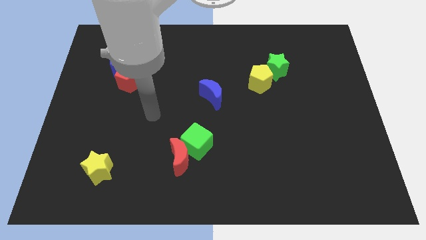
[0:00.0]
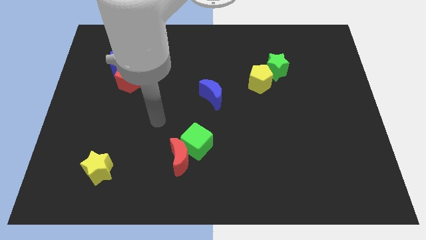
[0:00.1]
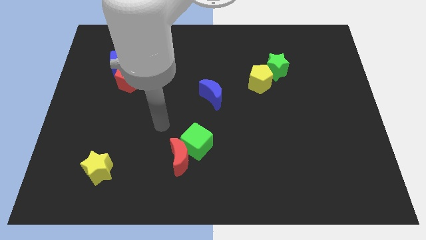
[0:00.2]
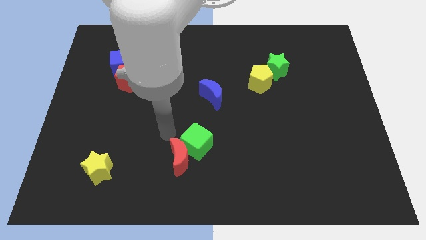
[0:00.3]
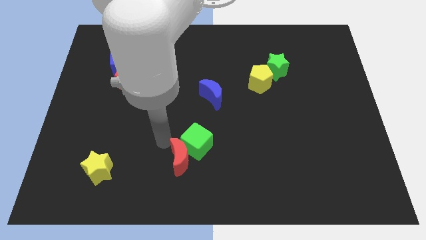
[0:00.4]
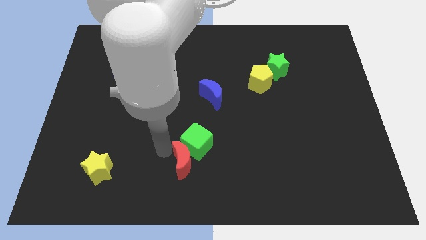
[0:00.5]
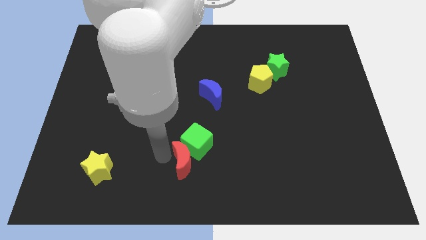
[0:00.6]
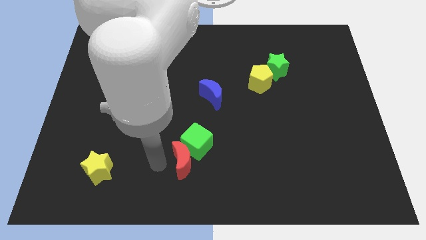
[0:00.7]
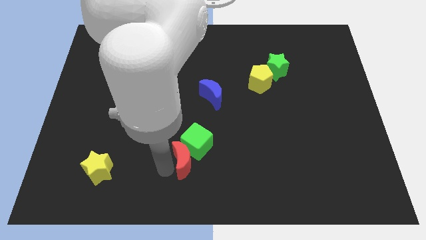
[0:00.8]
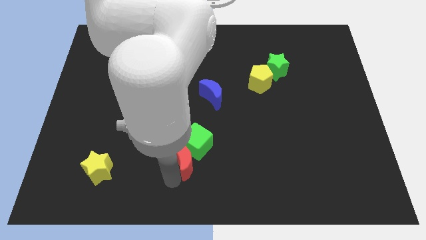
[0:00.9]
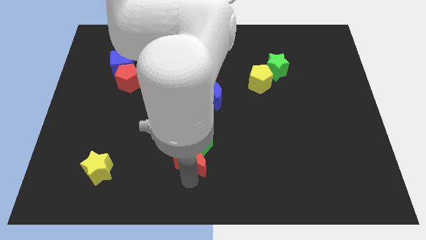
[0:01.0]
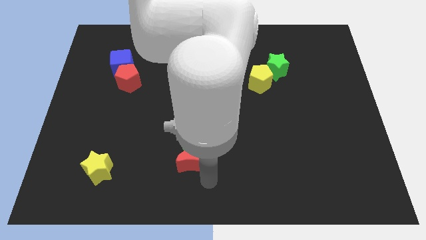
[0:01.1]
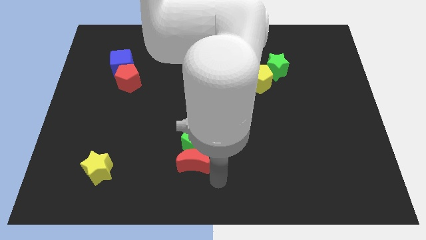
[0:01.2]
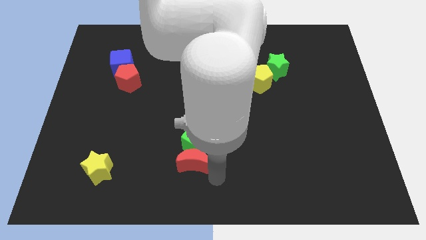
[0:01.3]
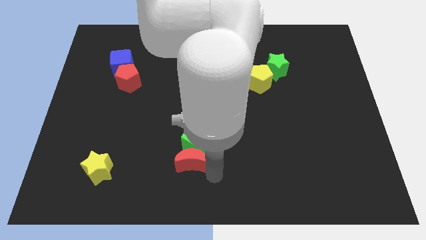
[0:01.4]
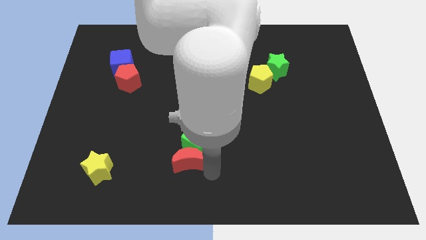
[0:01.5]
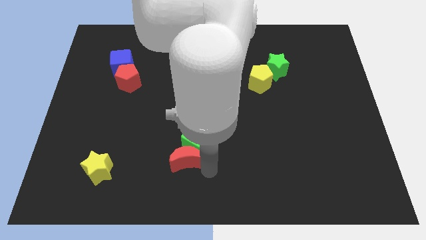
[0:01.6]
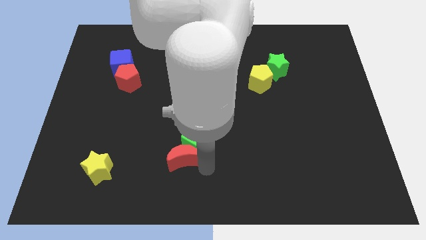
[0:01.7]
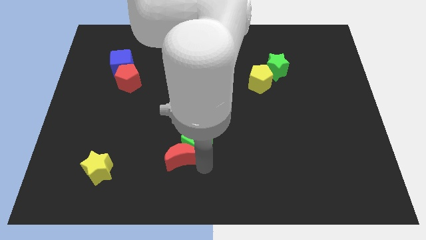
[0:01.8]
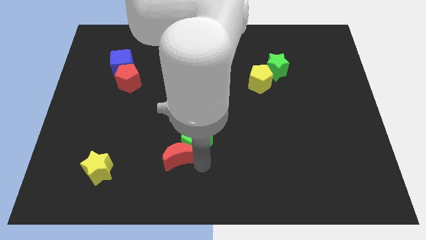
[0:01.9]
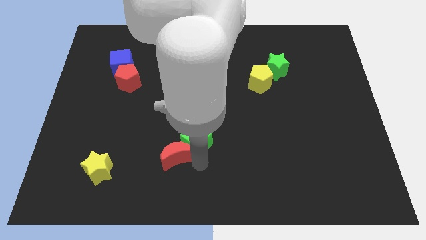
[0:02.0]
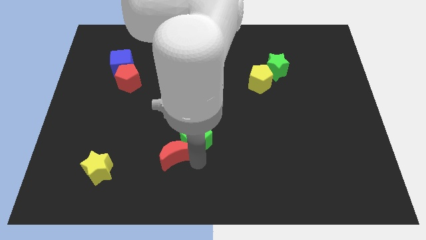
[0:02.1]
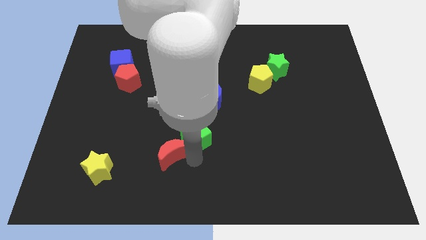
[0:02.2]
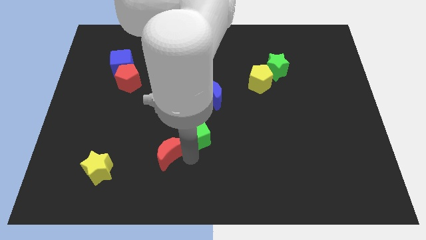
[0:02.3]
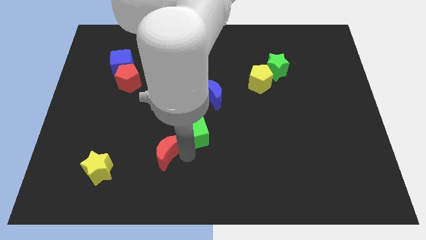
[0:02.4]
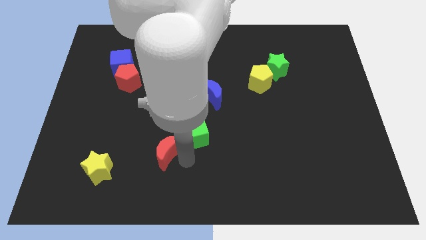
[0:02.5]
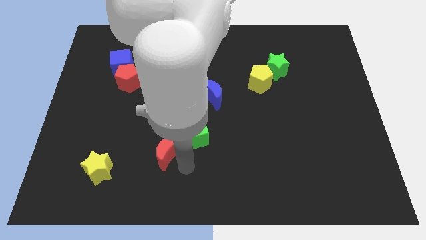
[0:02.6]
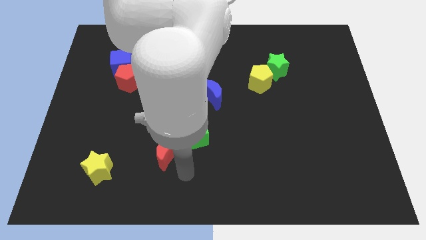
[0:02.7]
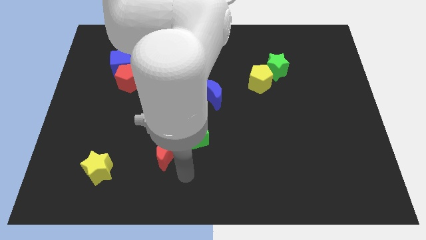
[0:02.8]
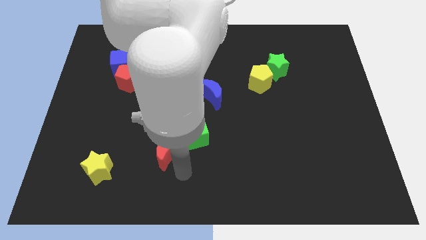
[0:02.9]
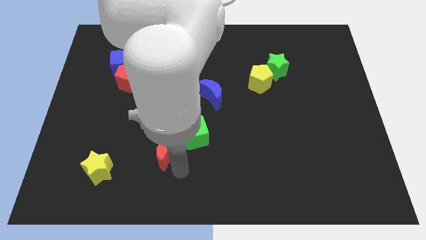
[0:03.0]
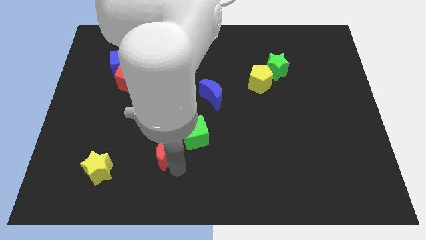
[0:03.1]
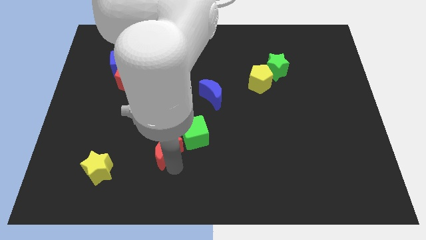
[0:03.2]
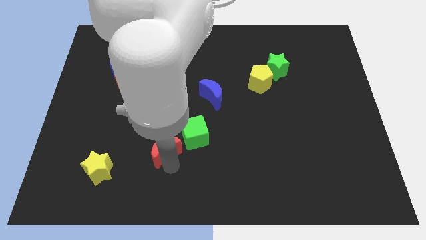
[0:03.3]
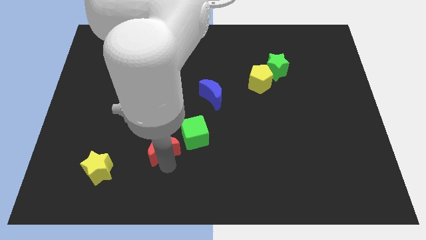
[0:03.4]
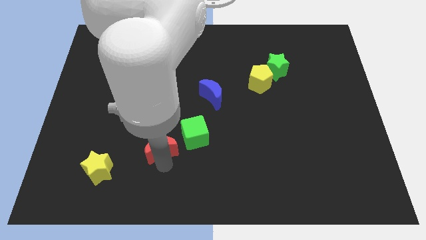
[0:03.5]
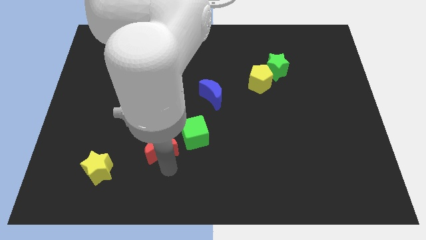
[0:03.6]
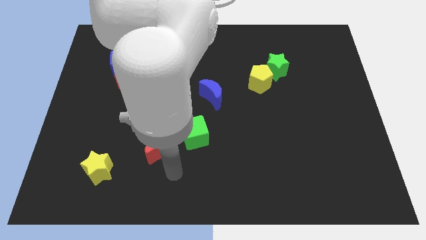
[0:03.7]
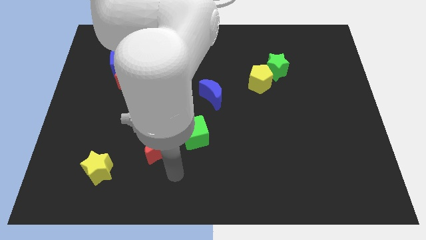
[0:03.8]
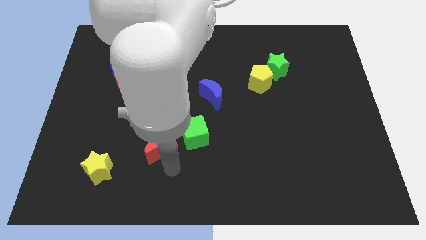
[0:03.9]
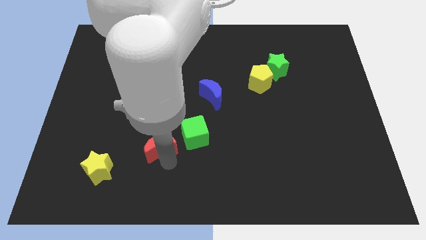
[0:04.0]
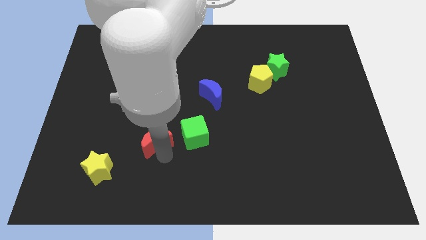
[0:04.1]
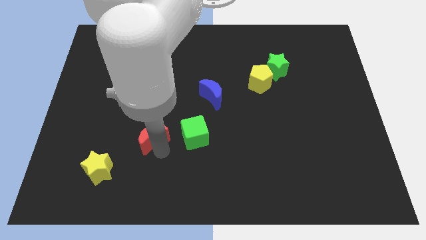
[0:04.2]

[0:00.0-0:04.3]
move the red moon up and then to the left a little bit

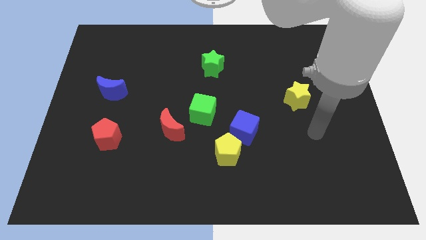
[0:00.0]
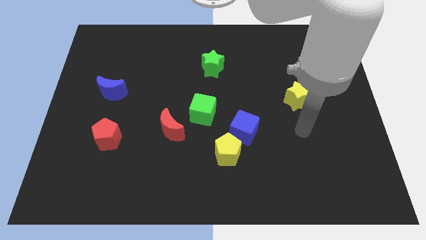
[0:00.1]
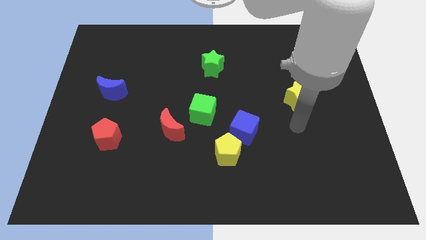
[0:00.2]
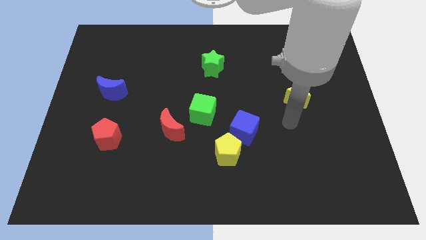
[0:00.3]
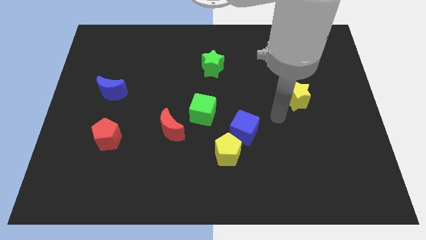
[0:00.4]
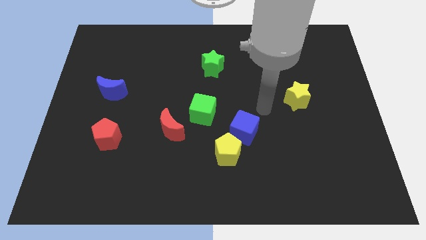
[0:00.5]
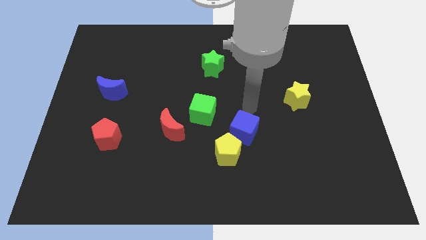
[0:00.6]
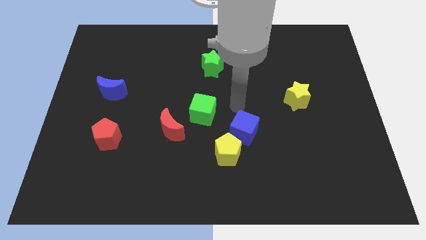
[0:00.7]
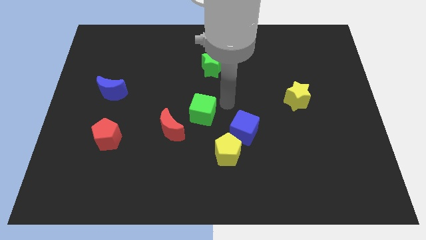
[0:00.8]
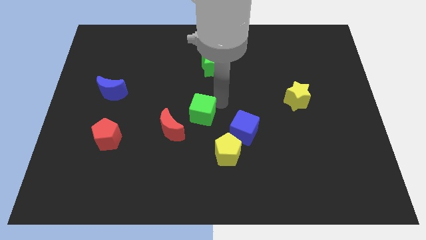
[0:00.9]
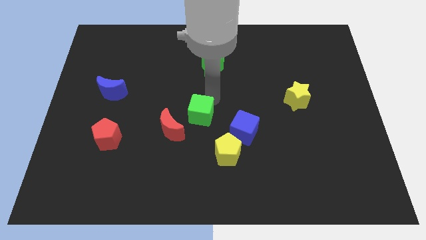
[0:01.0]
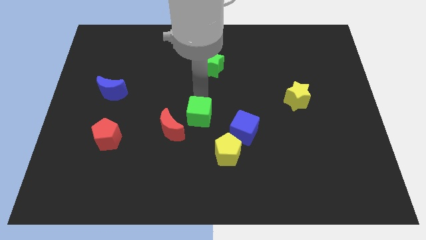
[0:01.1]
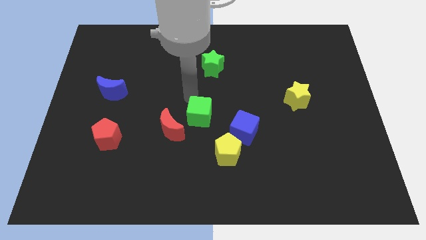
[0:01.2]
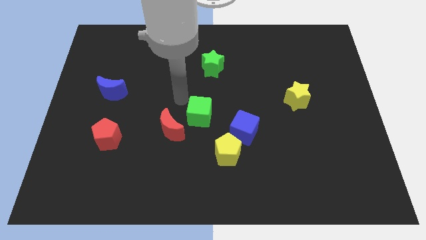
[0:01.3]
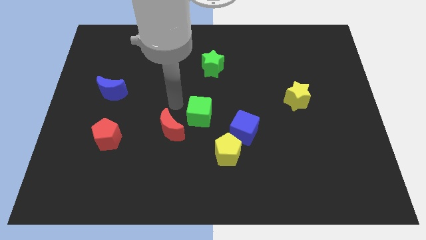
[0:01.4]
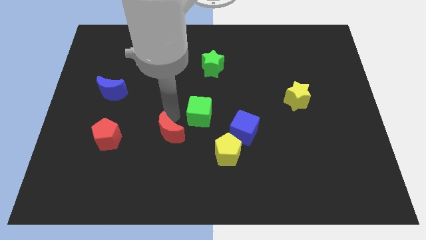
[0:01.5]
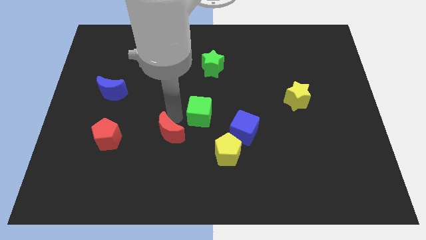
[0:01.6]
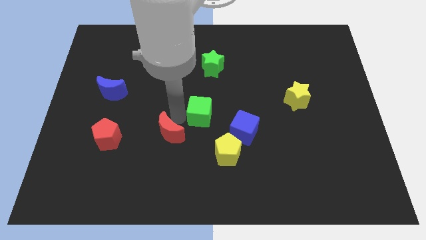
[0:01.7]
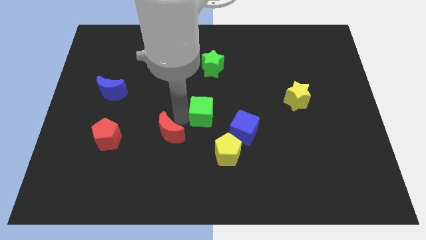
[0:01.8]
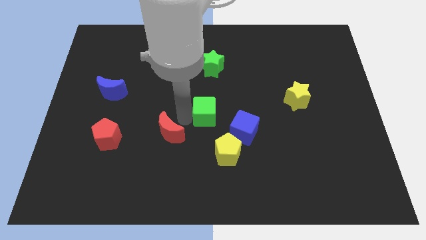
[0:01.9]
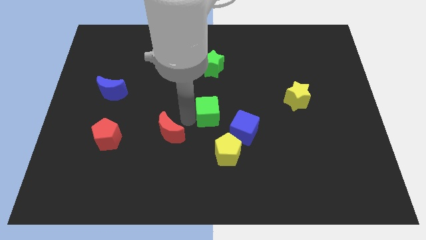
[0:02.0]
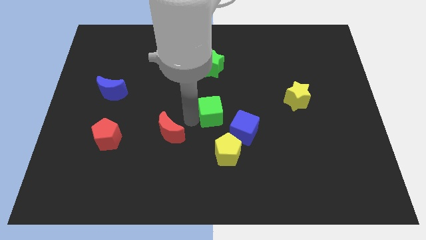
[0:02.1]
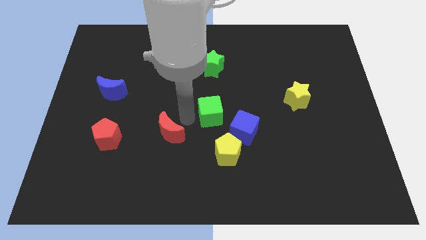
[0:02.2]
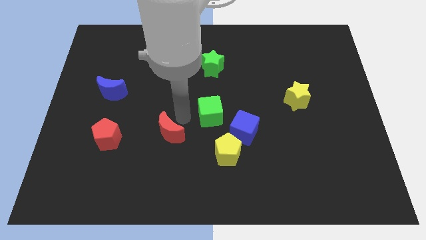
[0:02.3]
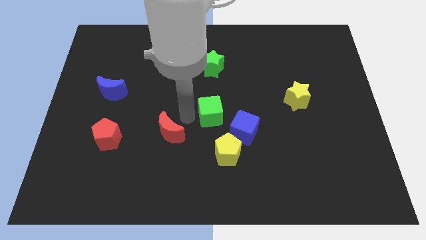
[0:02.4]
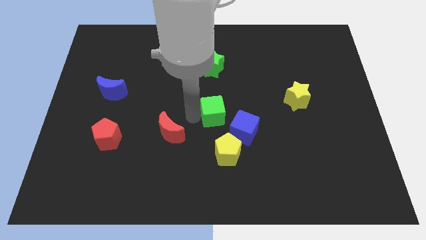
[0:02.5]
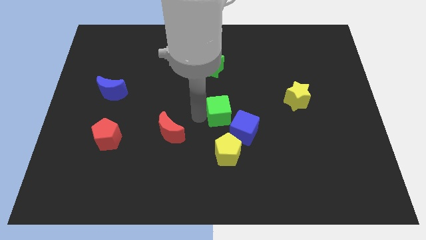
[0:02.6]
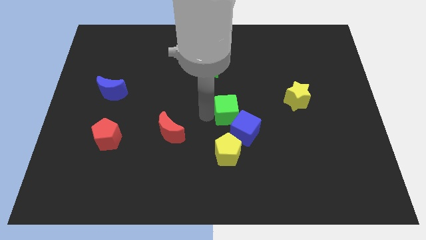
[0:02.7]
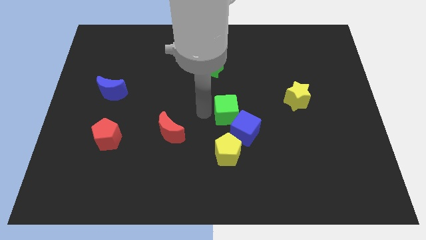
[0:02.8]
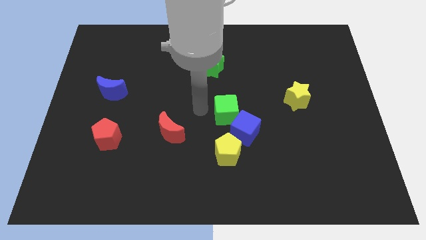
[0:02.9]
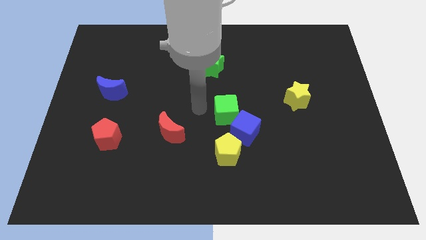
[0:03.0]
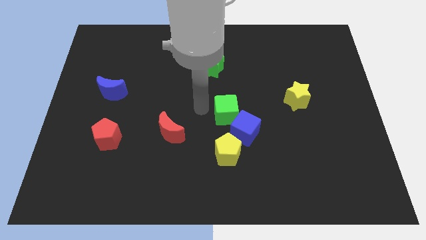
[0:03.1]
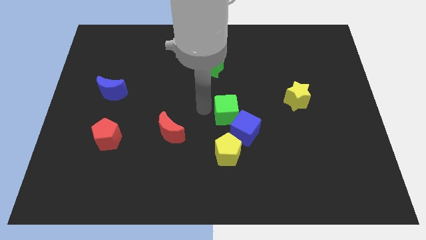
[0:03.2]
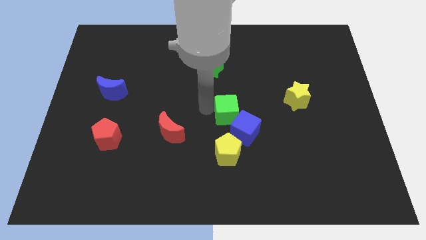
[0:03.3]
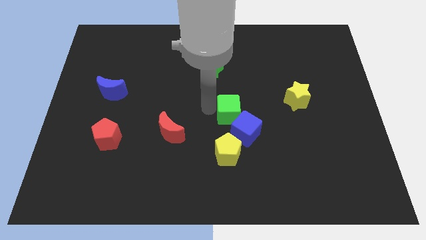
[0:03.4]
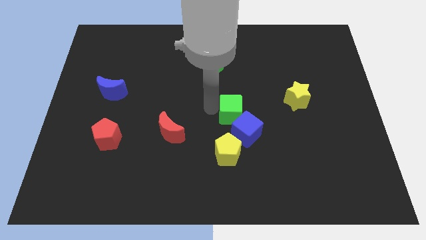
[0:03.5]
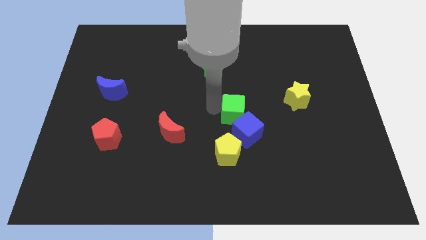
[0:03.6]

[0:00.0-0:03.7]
slide the green cube right a little

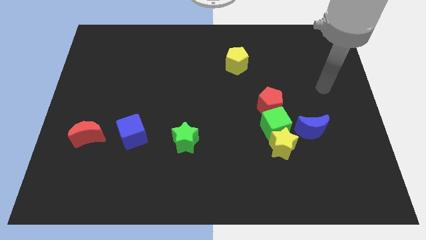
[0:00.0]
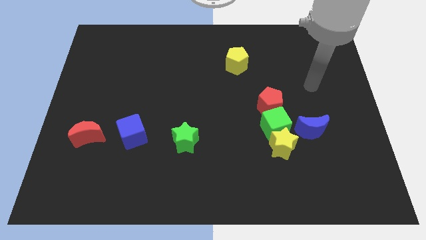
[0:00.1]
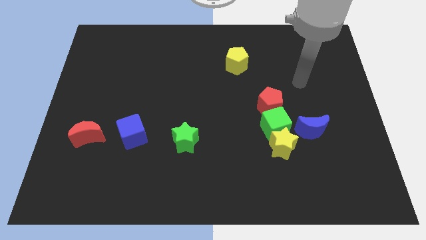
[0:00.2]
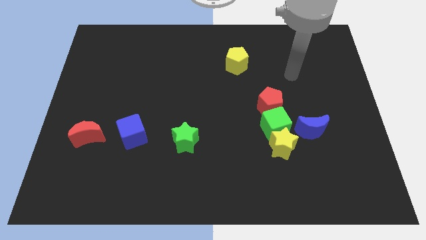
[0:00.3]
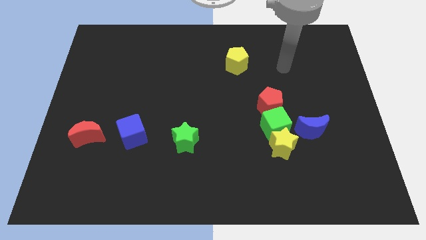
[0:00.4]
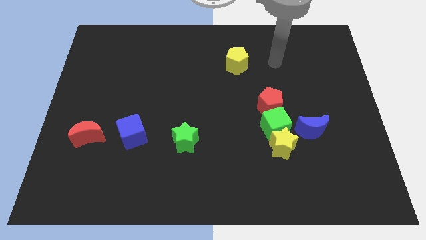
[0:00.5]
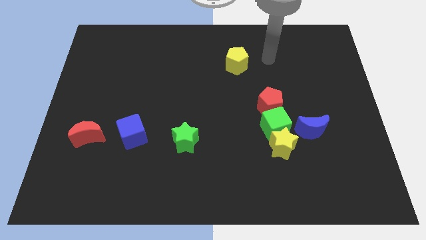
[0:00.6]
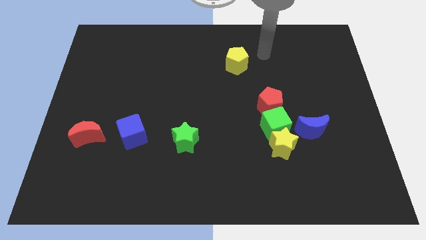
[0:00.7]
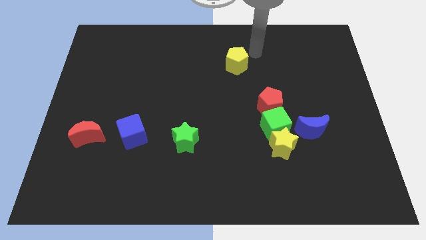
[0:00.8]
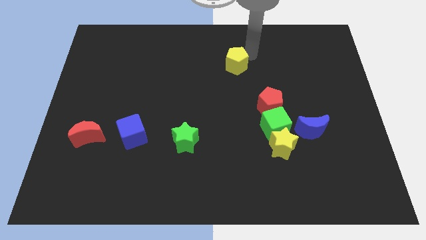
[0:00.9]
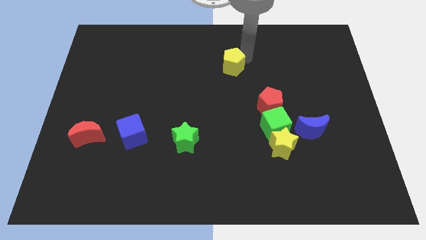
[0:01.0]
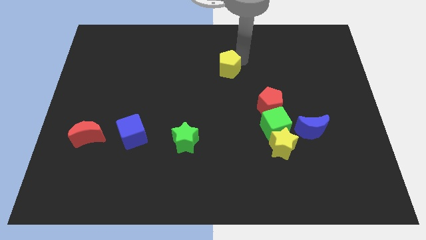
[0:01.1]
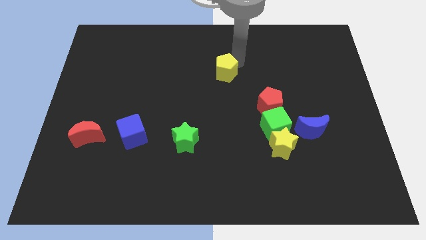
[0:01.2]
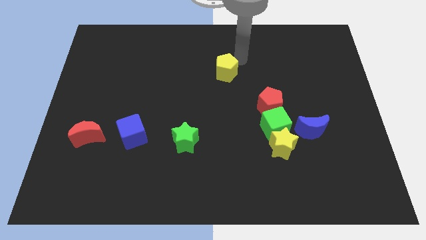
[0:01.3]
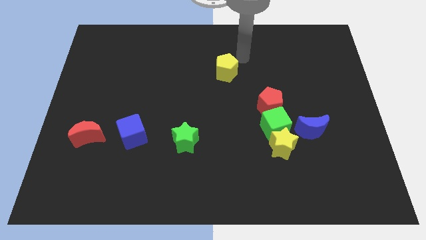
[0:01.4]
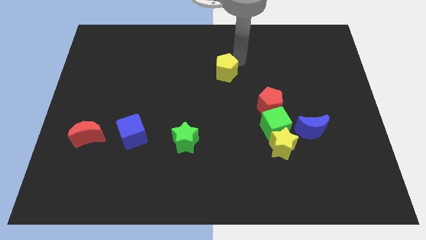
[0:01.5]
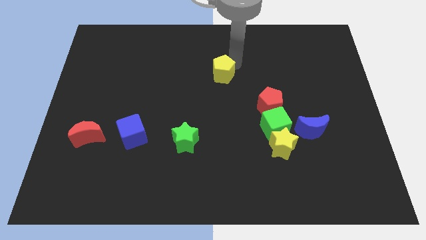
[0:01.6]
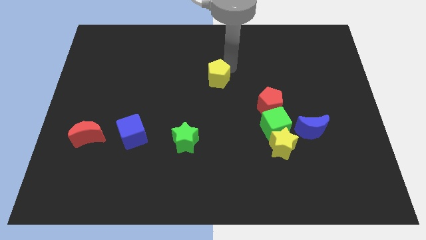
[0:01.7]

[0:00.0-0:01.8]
push the yellow pentagon a little downwards and then left
